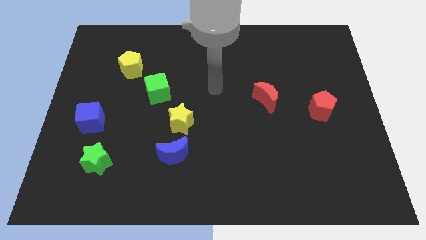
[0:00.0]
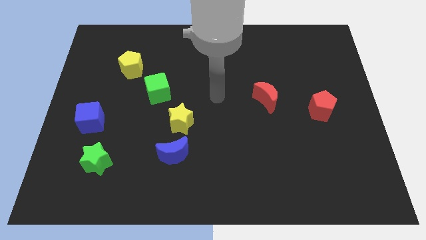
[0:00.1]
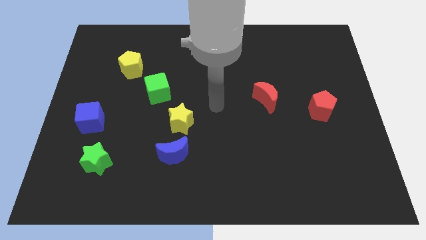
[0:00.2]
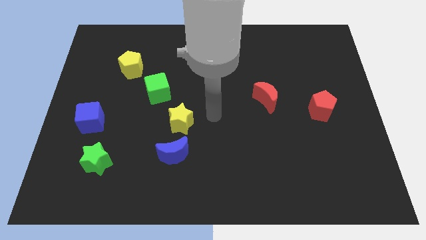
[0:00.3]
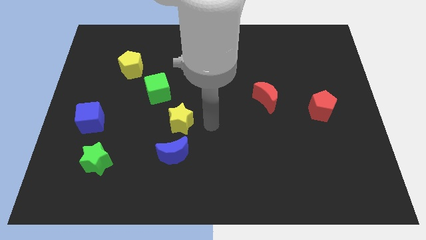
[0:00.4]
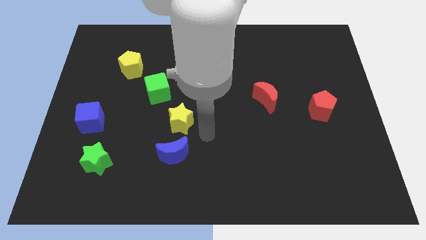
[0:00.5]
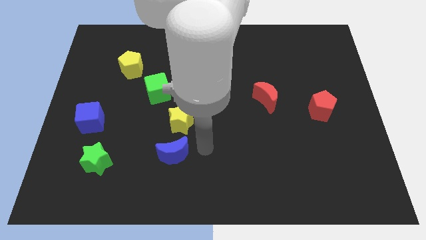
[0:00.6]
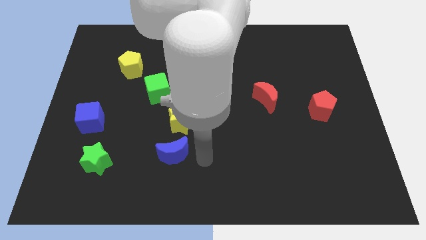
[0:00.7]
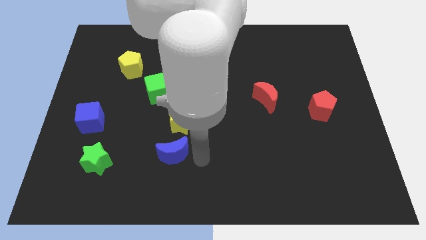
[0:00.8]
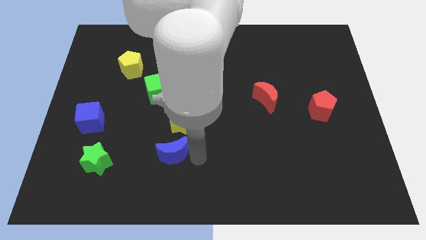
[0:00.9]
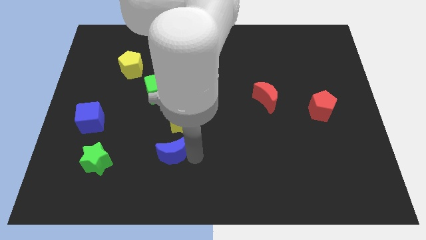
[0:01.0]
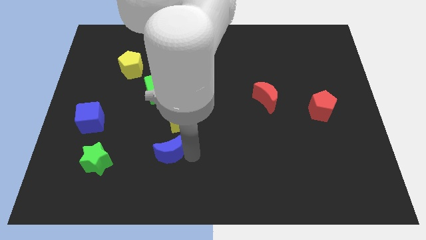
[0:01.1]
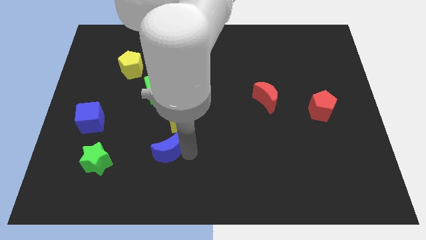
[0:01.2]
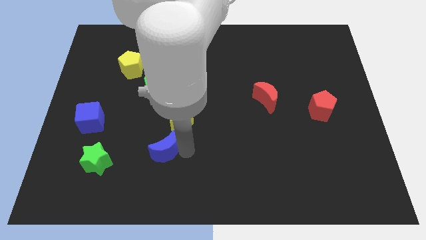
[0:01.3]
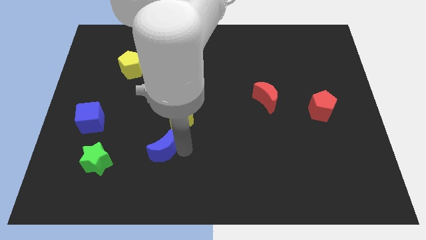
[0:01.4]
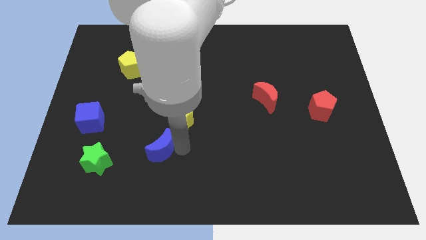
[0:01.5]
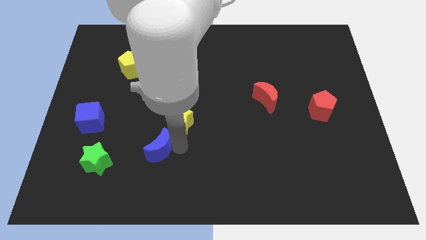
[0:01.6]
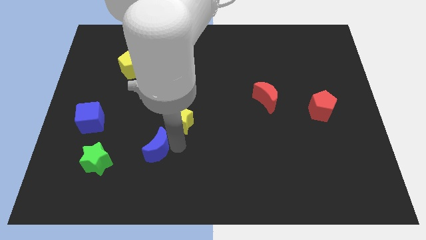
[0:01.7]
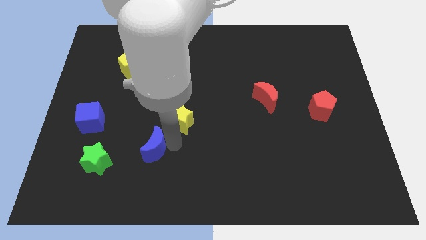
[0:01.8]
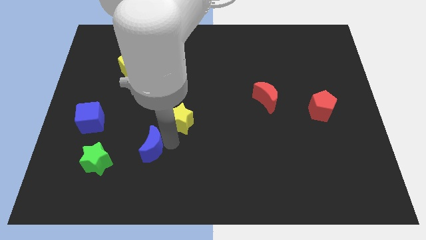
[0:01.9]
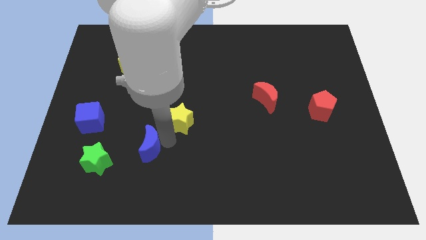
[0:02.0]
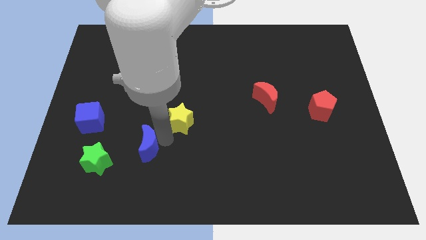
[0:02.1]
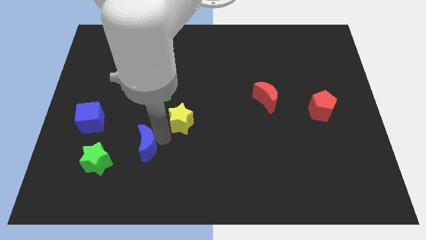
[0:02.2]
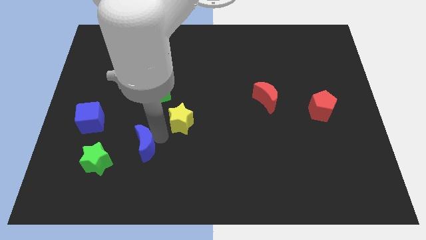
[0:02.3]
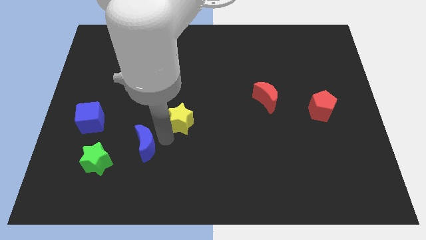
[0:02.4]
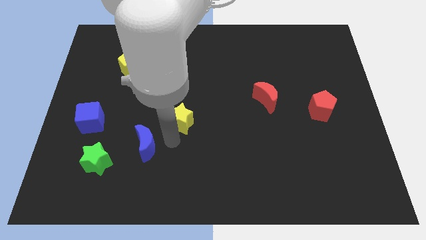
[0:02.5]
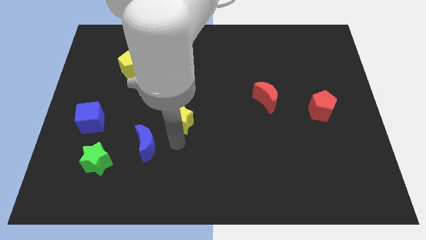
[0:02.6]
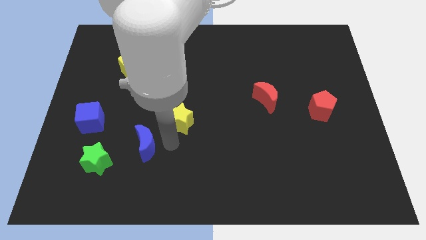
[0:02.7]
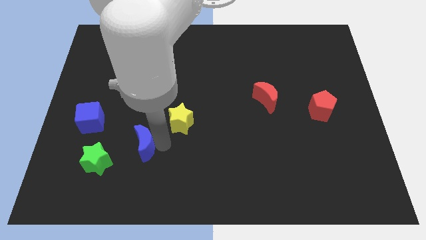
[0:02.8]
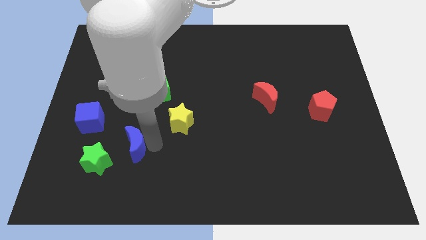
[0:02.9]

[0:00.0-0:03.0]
push the blue moon somewhat left

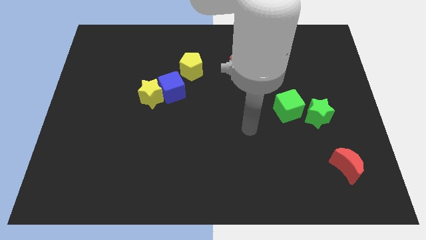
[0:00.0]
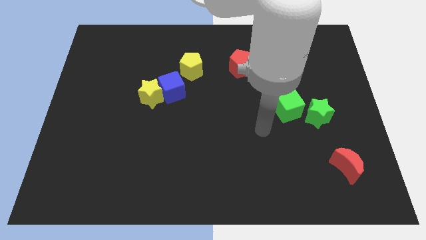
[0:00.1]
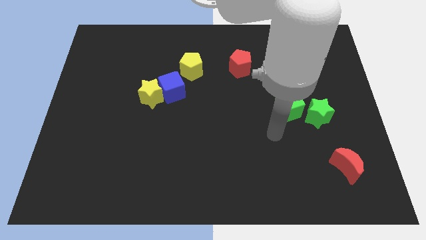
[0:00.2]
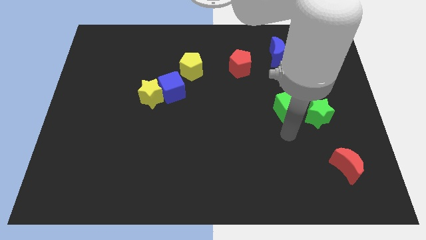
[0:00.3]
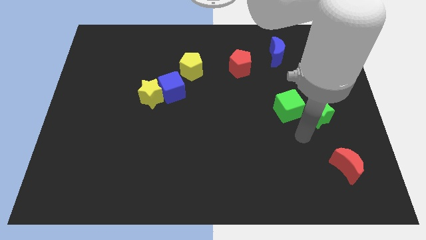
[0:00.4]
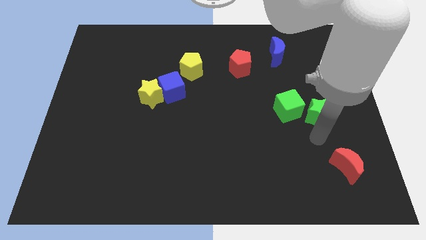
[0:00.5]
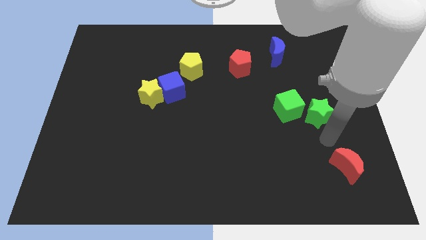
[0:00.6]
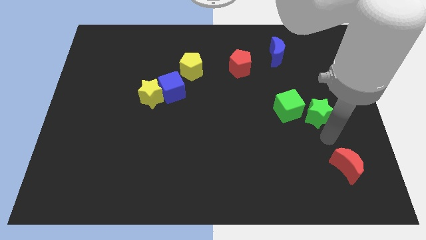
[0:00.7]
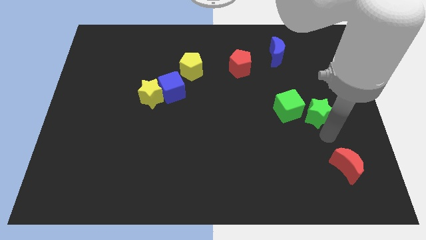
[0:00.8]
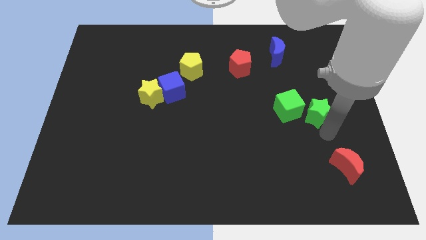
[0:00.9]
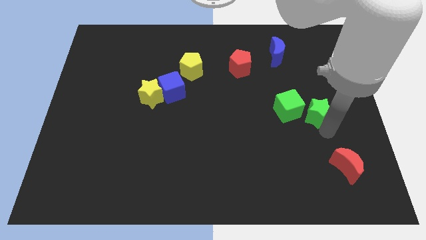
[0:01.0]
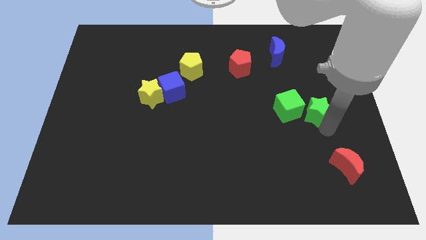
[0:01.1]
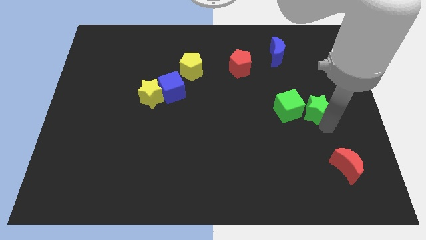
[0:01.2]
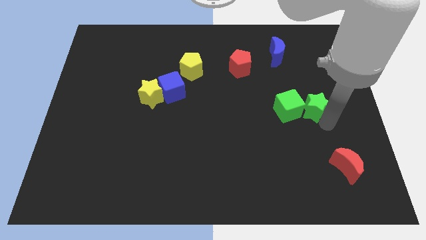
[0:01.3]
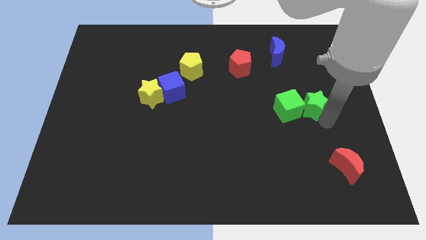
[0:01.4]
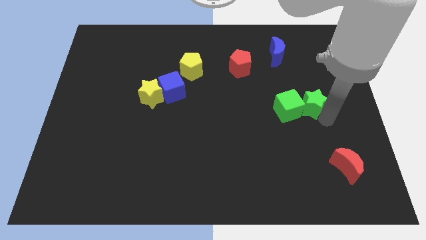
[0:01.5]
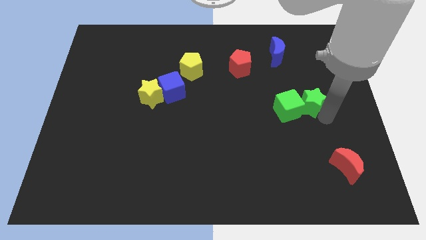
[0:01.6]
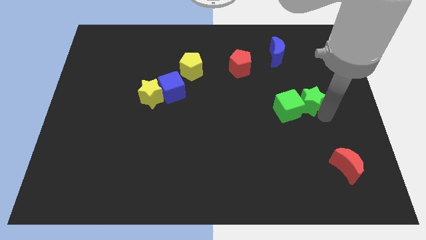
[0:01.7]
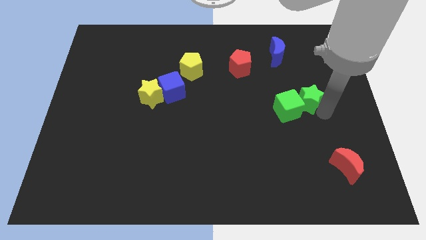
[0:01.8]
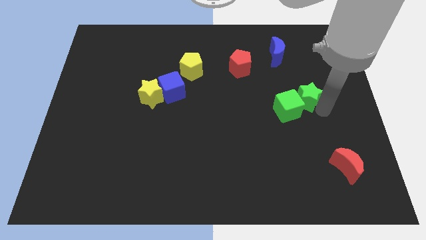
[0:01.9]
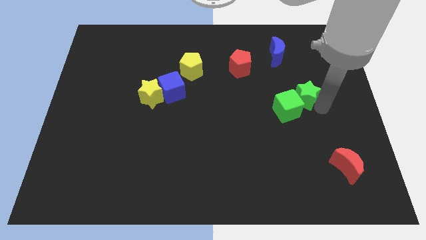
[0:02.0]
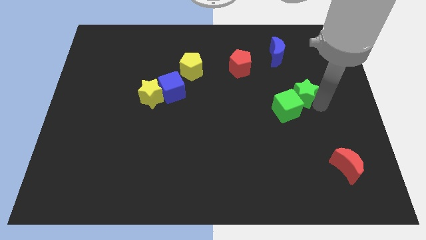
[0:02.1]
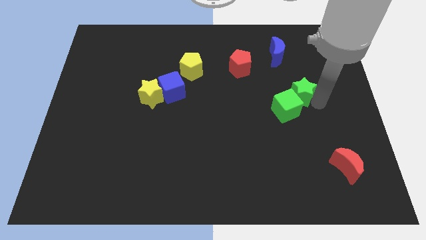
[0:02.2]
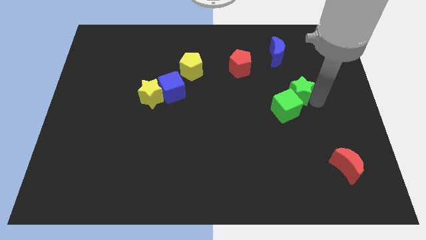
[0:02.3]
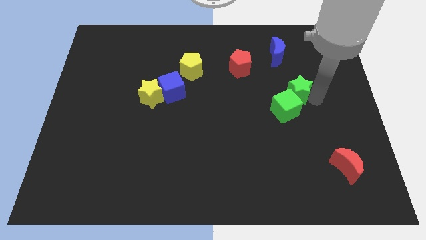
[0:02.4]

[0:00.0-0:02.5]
push the green star a little bit upwards and then left

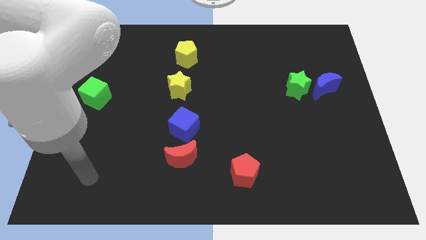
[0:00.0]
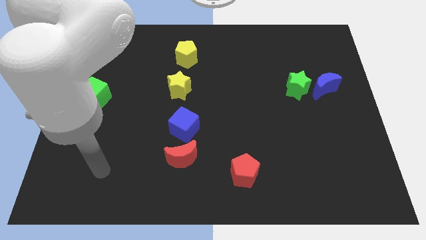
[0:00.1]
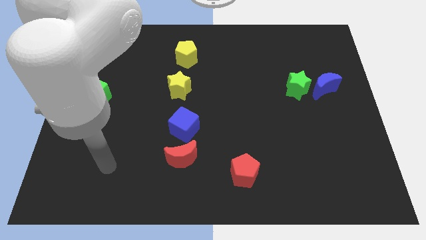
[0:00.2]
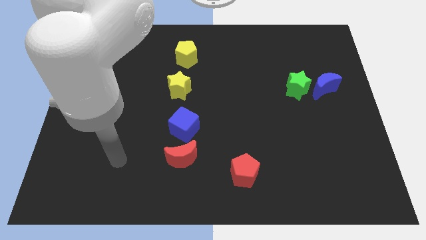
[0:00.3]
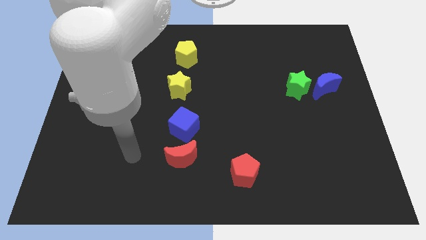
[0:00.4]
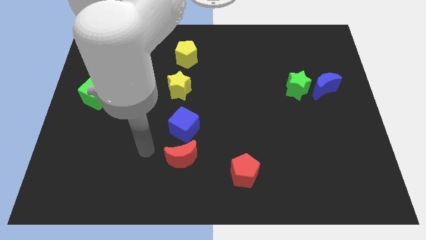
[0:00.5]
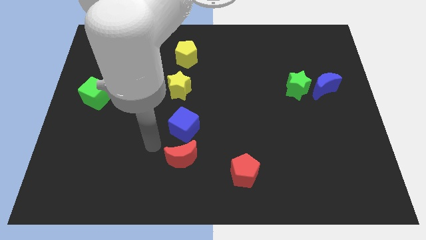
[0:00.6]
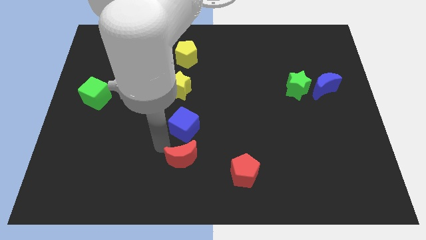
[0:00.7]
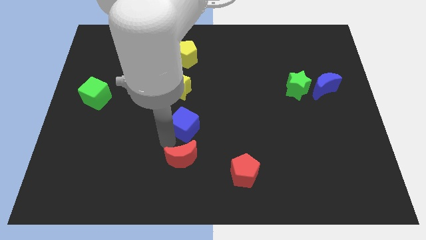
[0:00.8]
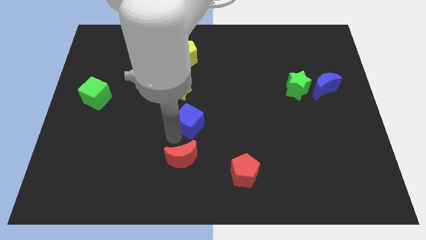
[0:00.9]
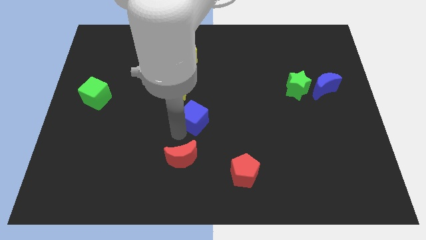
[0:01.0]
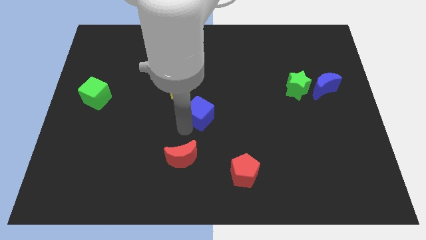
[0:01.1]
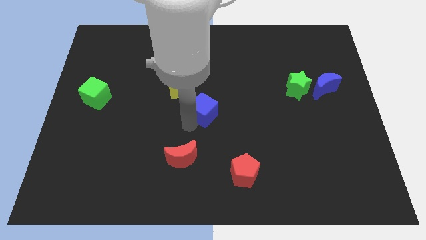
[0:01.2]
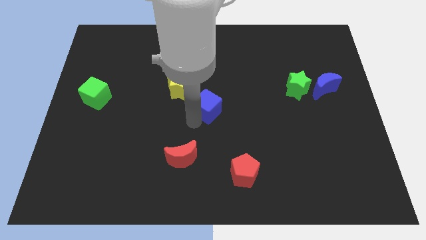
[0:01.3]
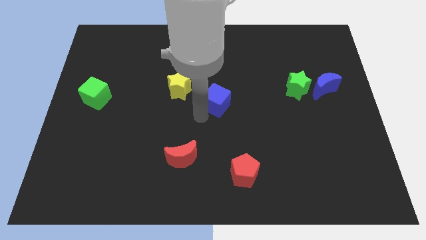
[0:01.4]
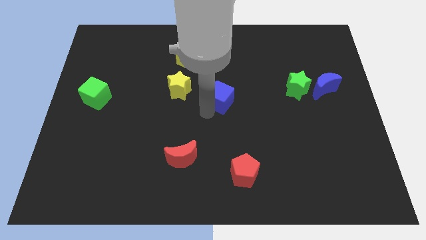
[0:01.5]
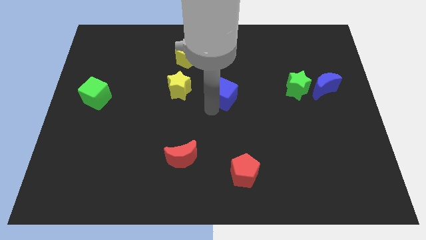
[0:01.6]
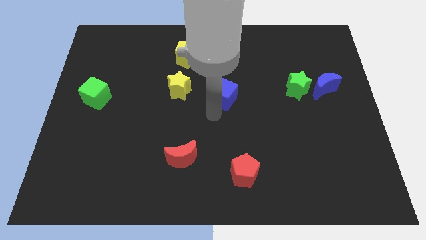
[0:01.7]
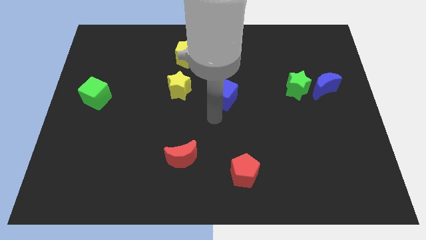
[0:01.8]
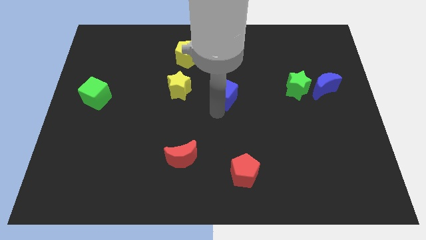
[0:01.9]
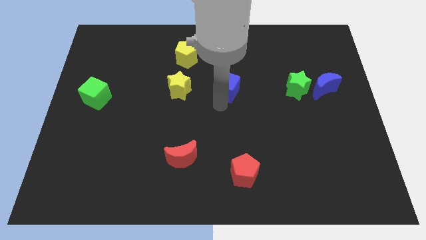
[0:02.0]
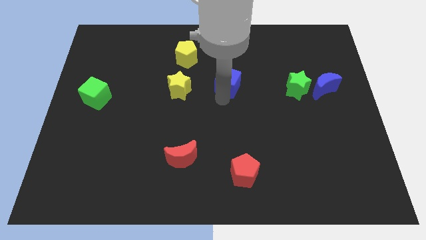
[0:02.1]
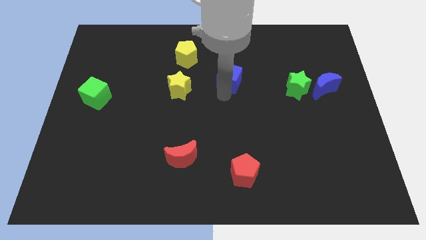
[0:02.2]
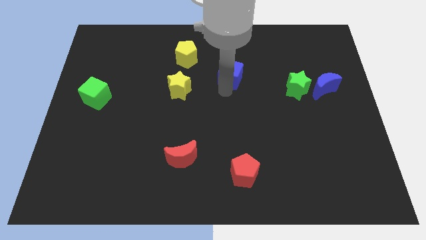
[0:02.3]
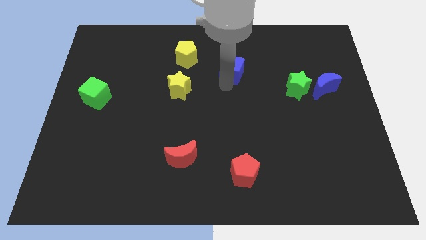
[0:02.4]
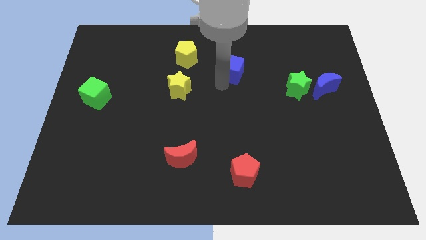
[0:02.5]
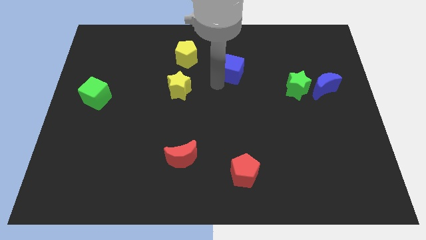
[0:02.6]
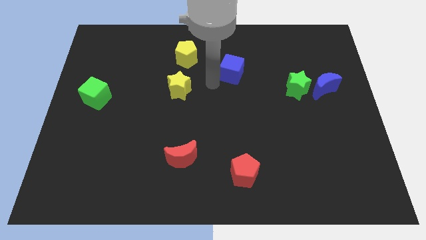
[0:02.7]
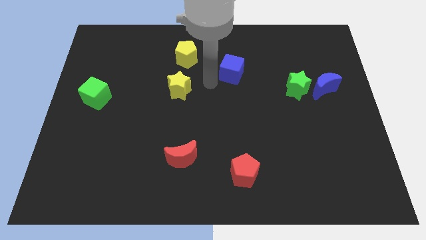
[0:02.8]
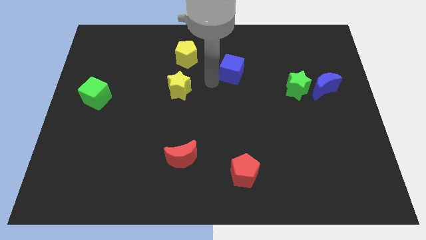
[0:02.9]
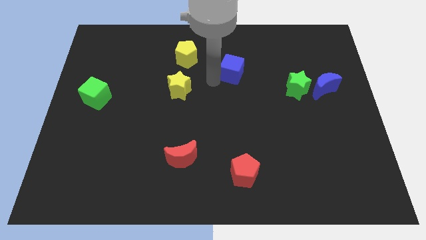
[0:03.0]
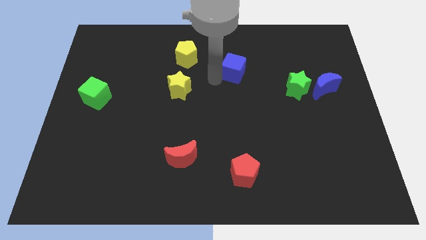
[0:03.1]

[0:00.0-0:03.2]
slide the blue cube upwards and right diagonally
